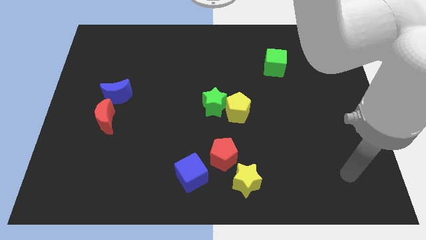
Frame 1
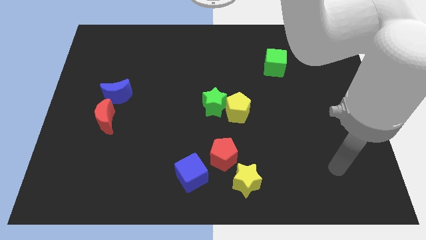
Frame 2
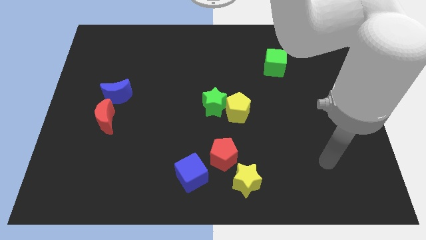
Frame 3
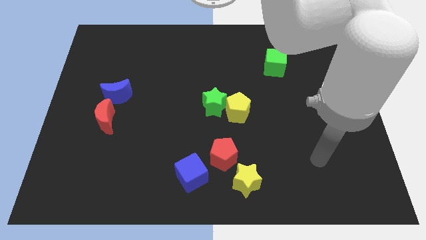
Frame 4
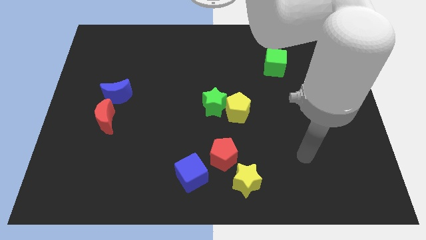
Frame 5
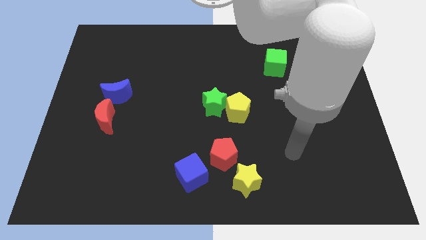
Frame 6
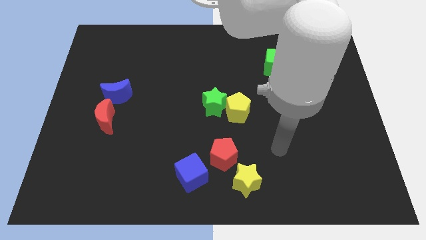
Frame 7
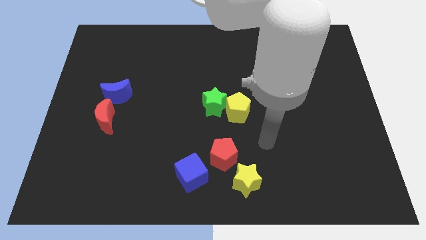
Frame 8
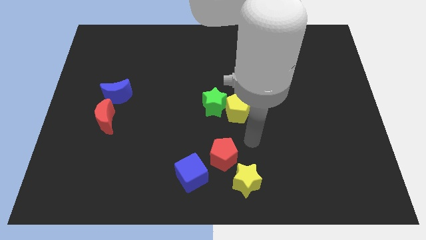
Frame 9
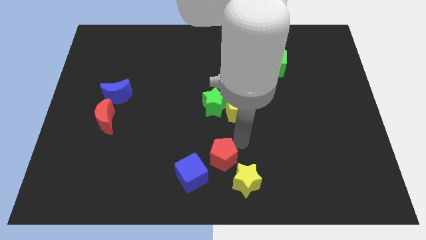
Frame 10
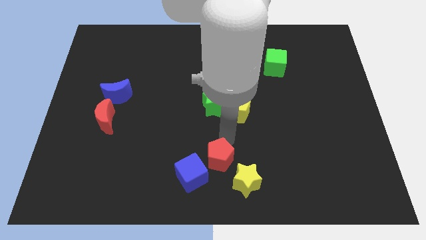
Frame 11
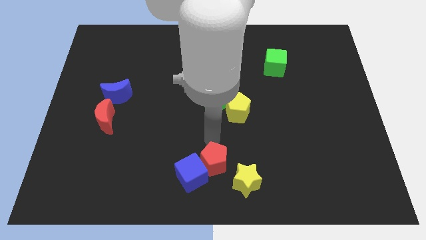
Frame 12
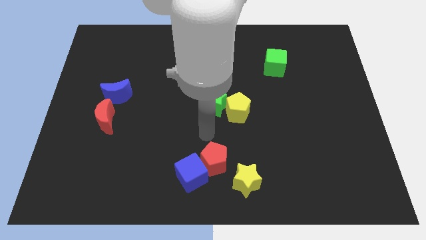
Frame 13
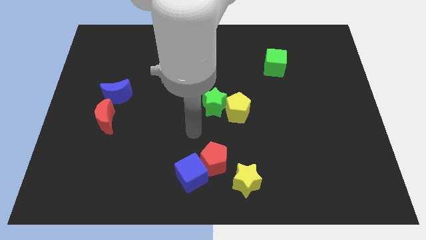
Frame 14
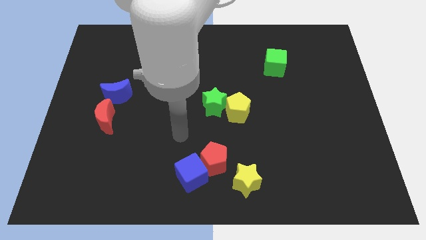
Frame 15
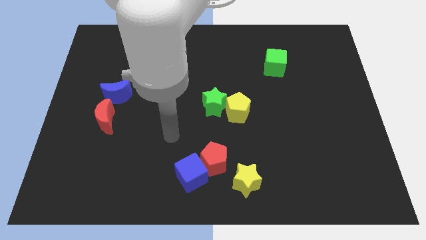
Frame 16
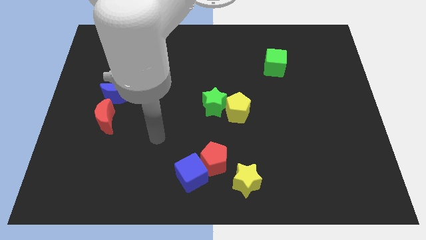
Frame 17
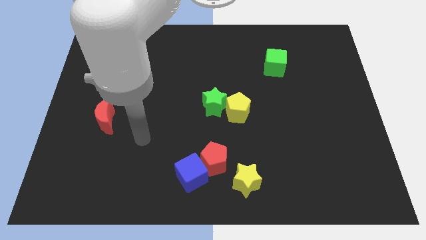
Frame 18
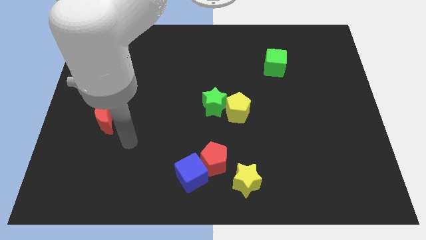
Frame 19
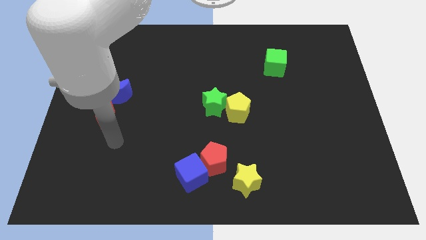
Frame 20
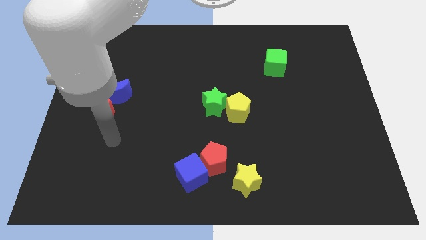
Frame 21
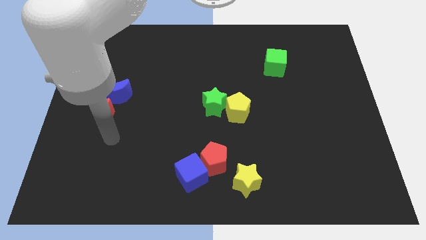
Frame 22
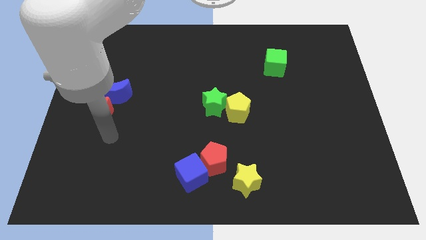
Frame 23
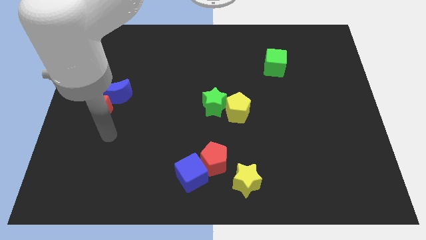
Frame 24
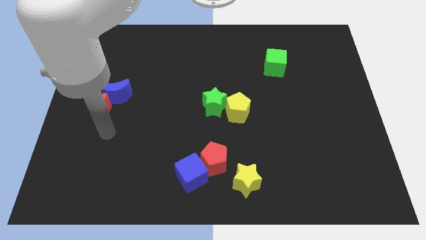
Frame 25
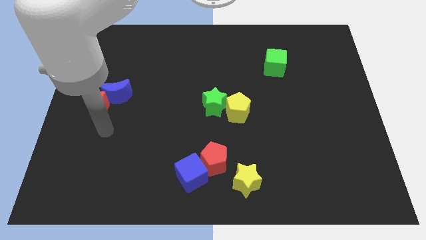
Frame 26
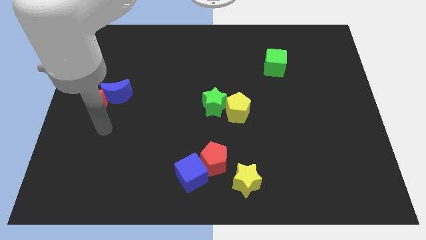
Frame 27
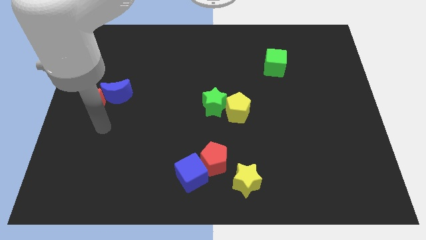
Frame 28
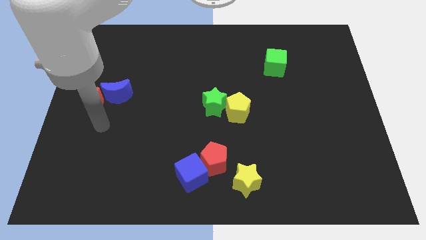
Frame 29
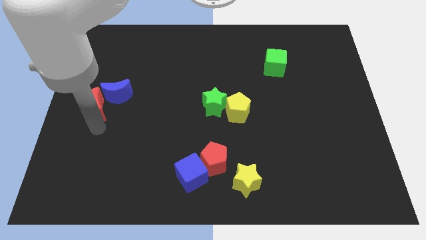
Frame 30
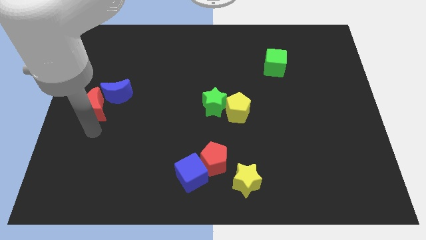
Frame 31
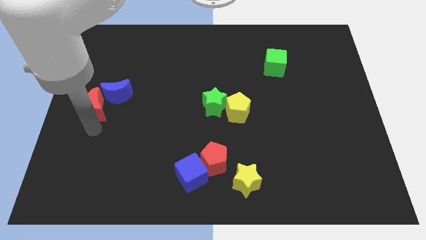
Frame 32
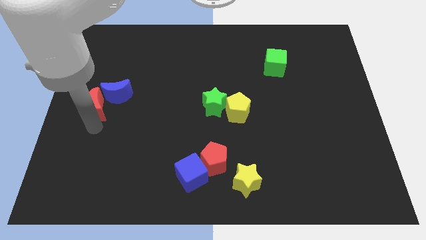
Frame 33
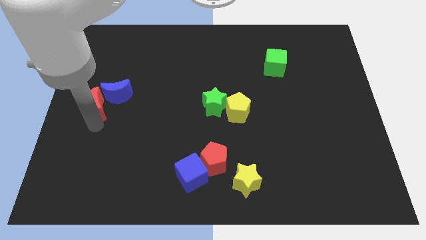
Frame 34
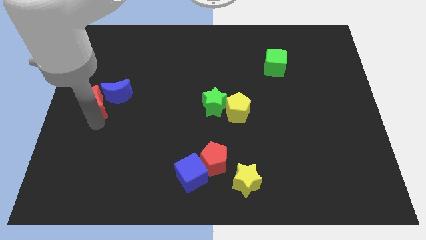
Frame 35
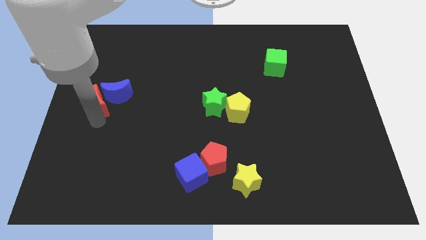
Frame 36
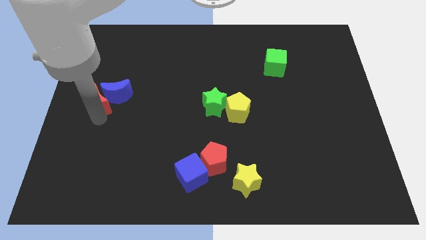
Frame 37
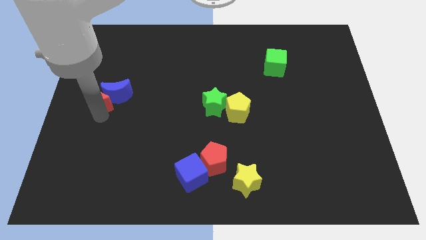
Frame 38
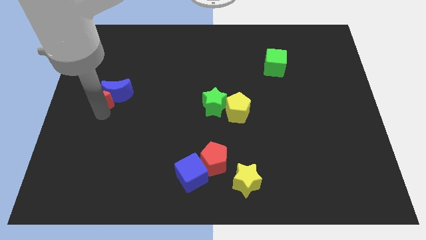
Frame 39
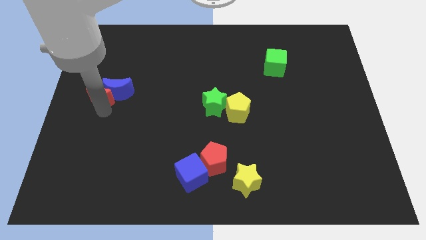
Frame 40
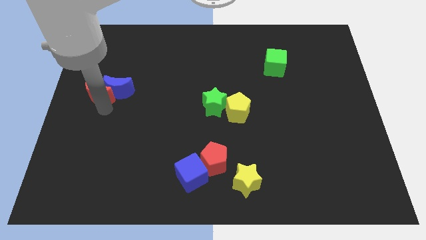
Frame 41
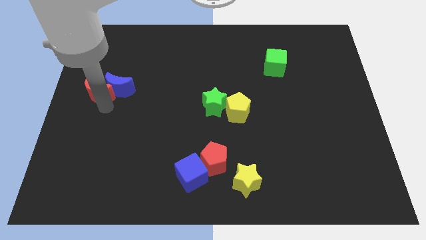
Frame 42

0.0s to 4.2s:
slightly push the red moon upwards

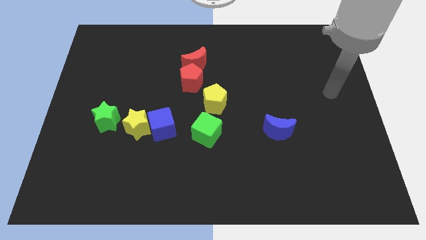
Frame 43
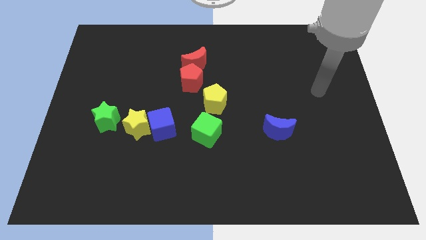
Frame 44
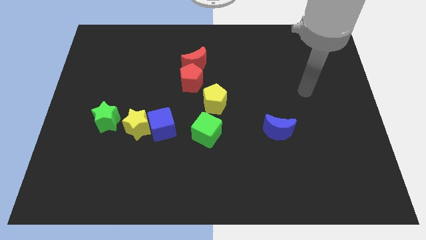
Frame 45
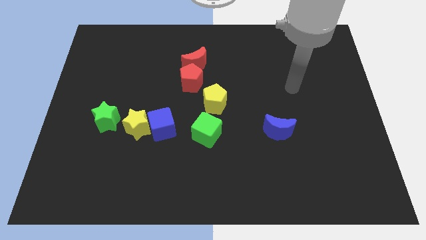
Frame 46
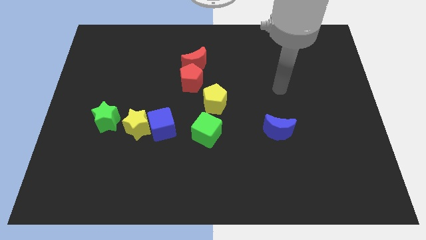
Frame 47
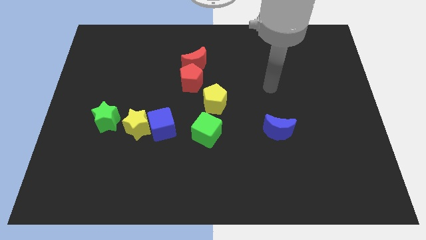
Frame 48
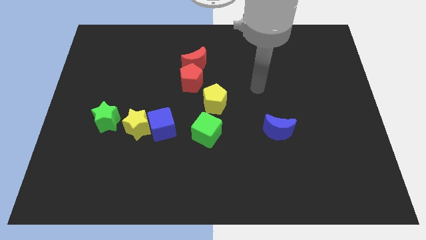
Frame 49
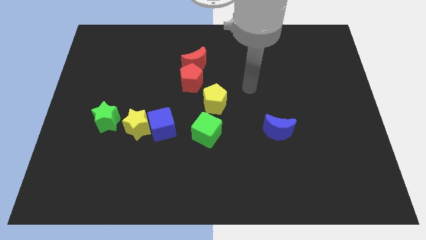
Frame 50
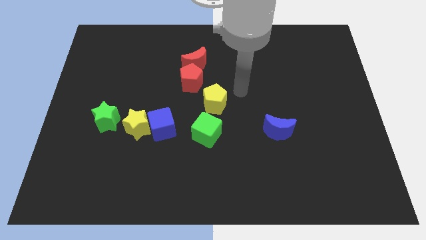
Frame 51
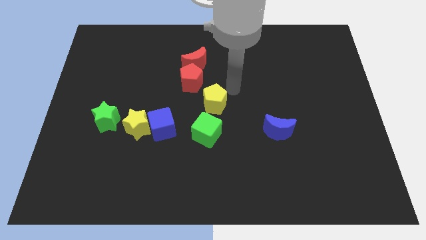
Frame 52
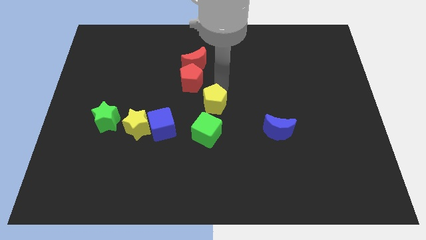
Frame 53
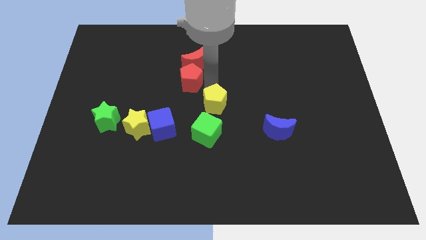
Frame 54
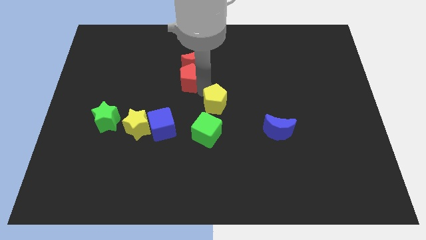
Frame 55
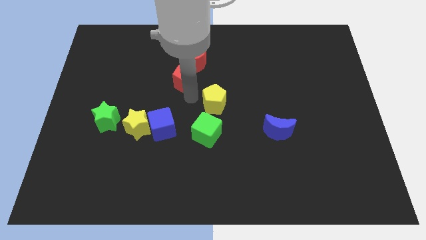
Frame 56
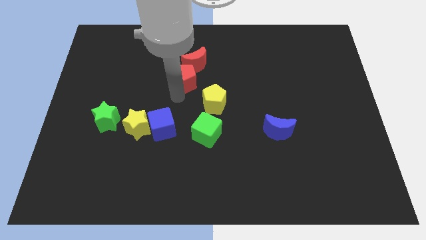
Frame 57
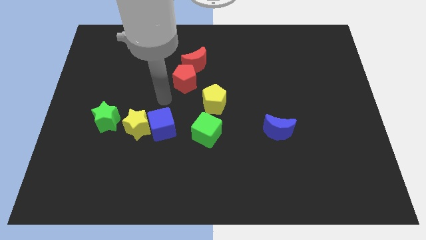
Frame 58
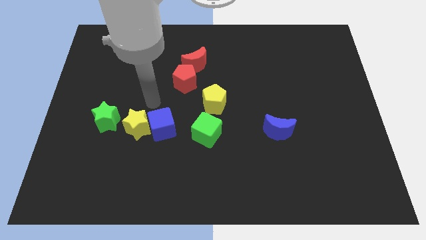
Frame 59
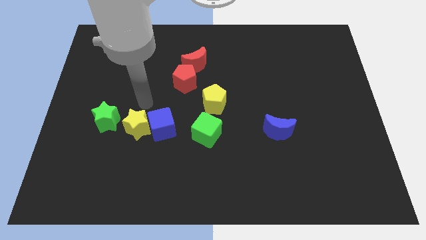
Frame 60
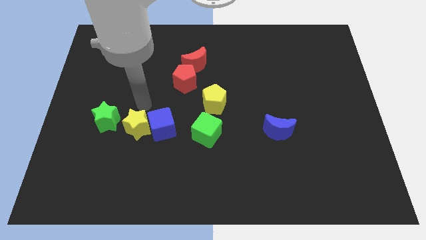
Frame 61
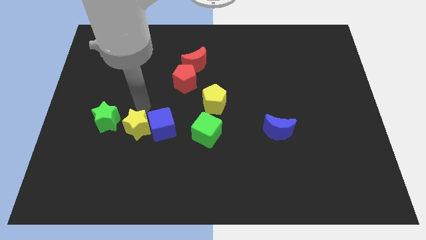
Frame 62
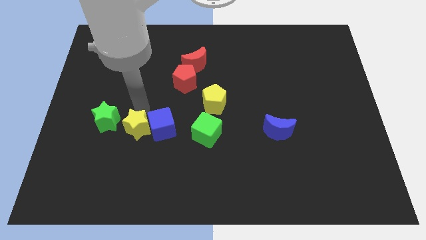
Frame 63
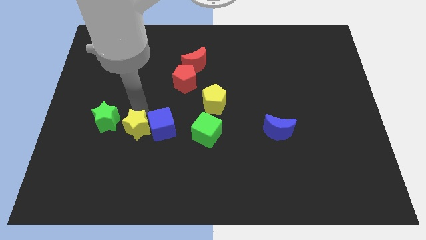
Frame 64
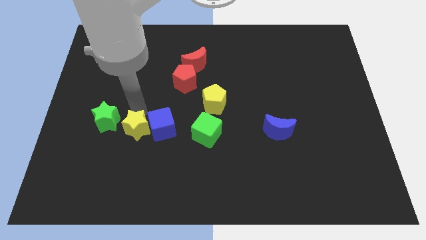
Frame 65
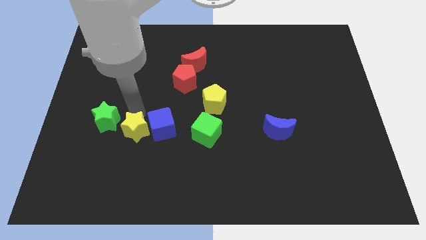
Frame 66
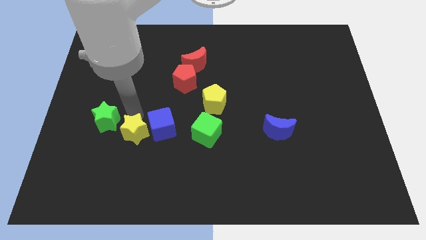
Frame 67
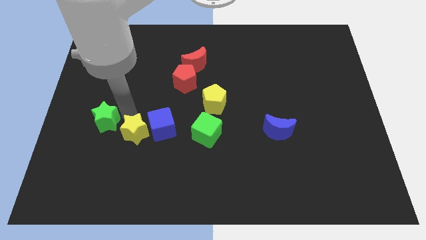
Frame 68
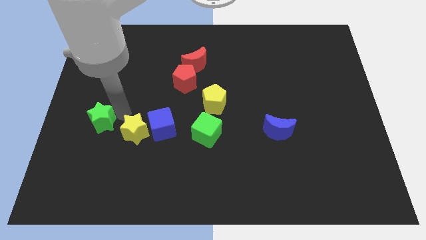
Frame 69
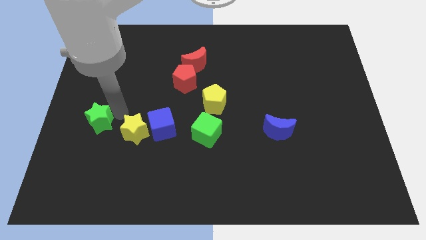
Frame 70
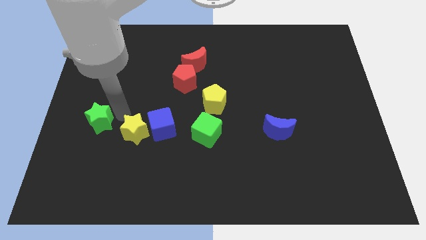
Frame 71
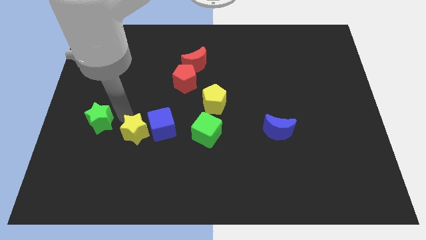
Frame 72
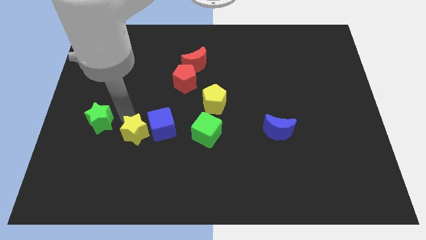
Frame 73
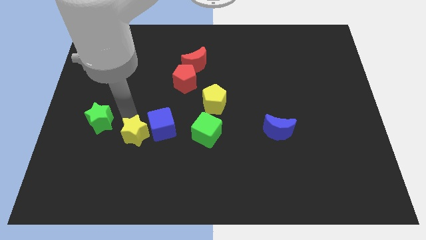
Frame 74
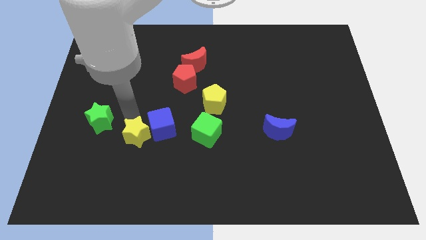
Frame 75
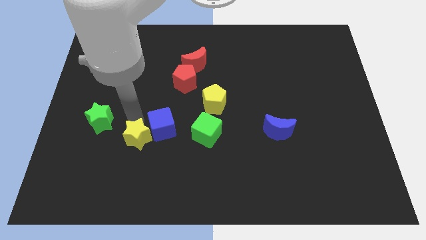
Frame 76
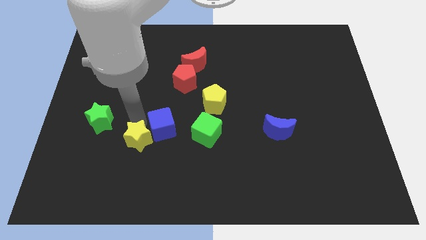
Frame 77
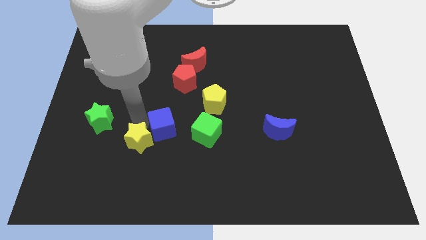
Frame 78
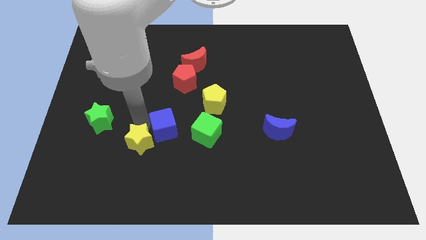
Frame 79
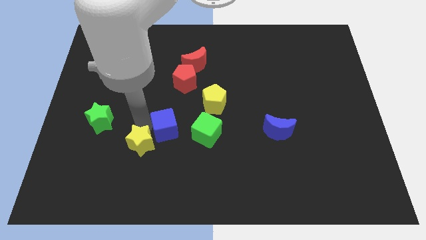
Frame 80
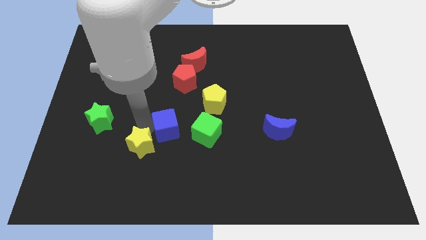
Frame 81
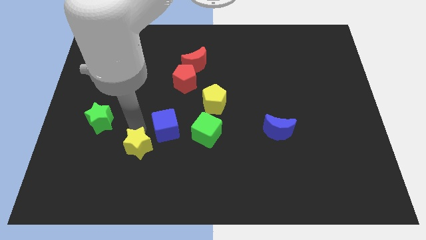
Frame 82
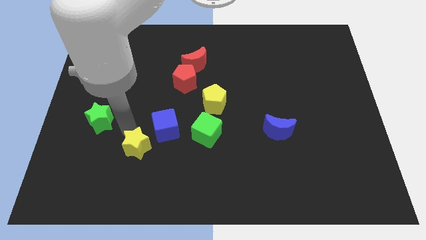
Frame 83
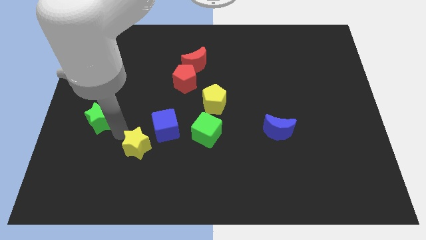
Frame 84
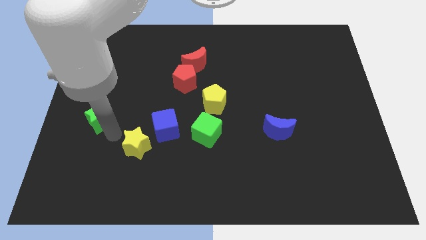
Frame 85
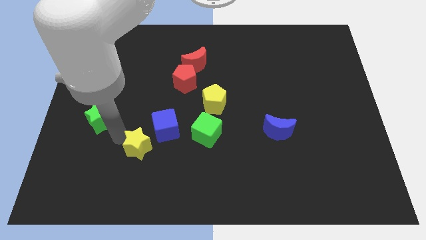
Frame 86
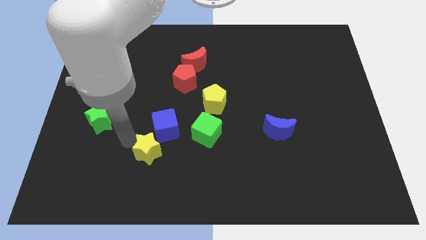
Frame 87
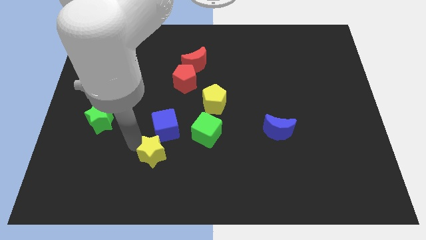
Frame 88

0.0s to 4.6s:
slightly move the yellow star diagonally down and right
